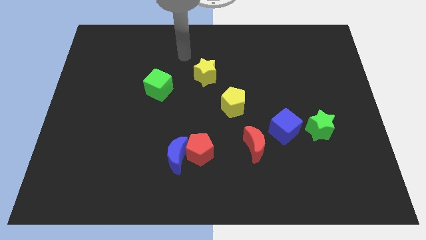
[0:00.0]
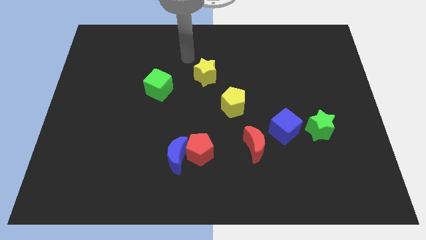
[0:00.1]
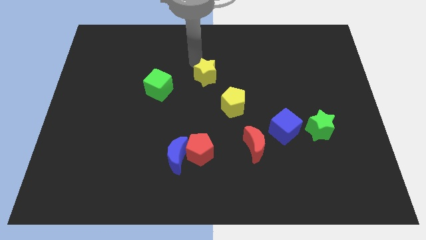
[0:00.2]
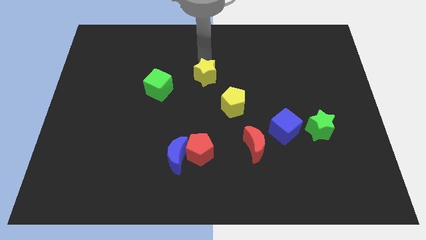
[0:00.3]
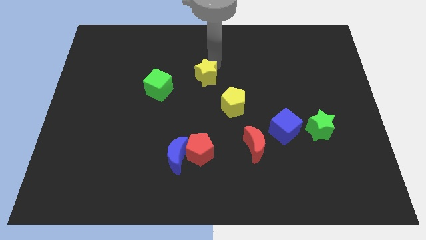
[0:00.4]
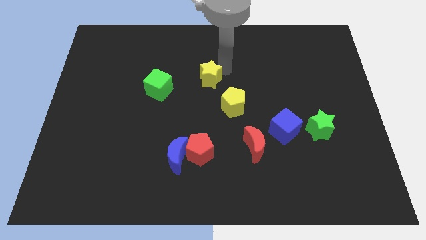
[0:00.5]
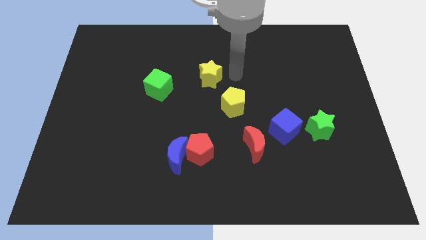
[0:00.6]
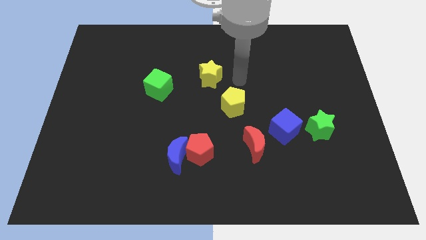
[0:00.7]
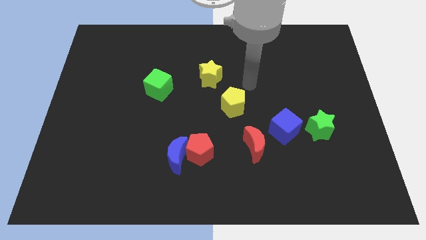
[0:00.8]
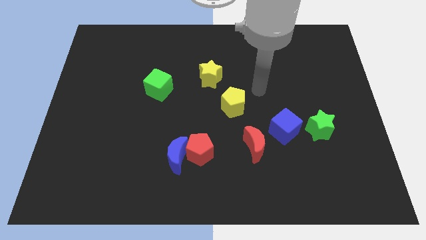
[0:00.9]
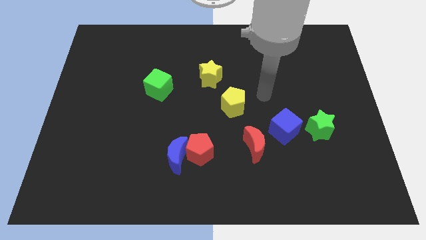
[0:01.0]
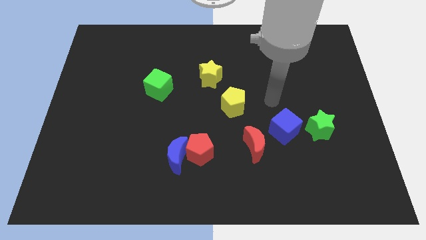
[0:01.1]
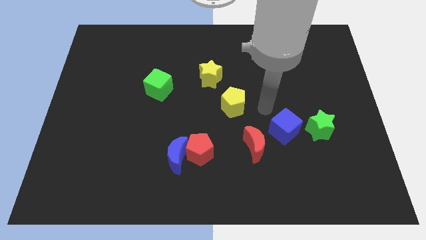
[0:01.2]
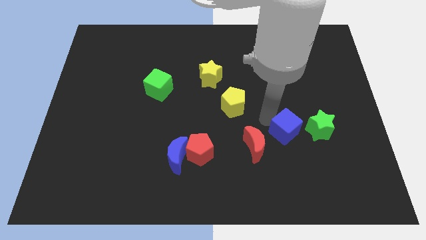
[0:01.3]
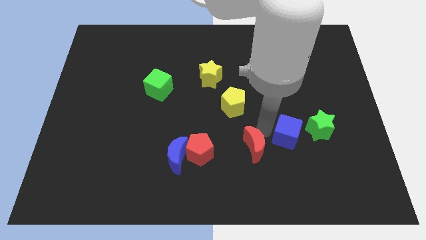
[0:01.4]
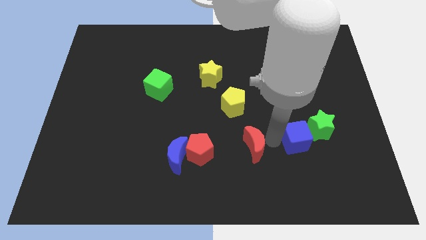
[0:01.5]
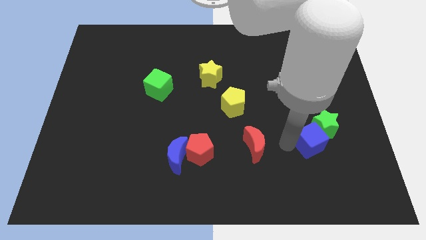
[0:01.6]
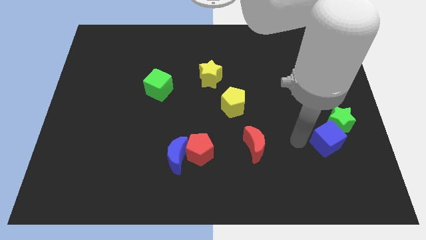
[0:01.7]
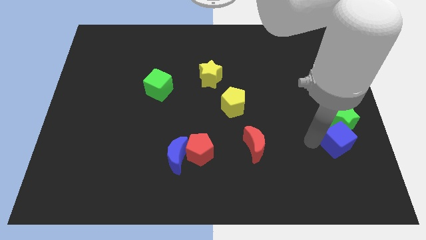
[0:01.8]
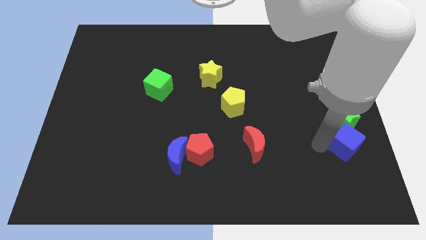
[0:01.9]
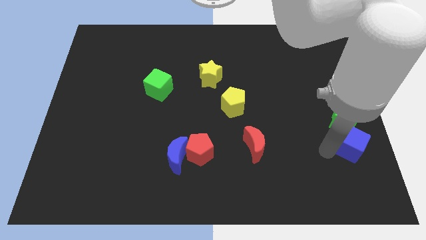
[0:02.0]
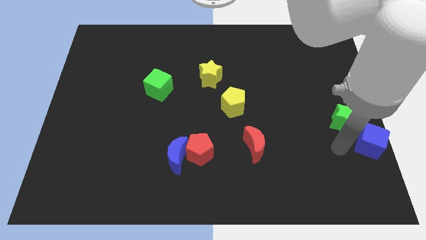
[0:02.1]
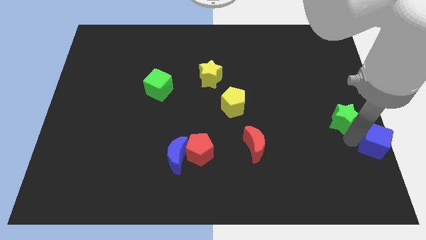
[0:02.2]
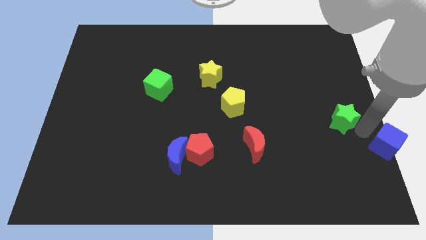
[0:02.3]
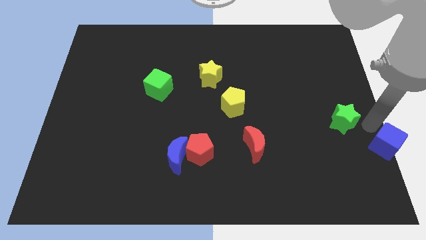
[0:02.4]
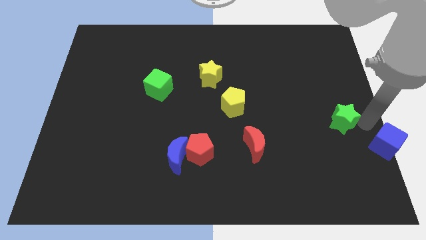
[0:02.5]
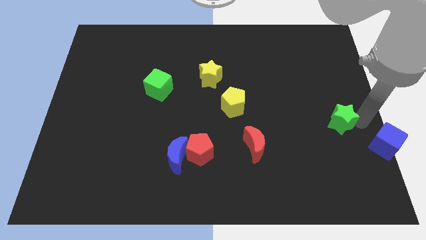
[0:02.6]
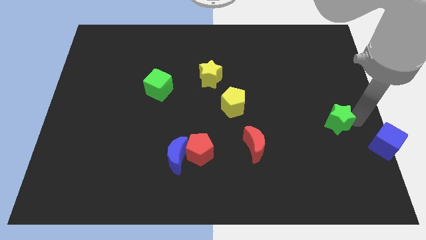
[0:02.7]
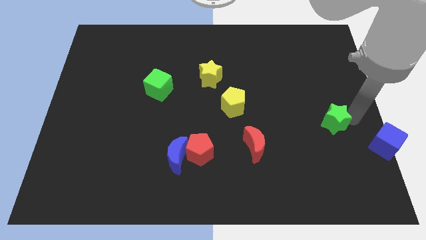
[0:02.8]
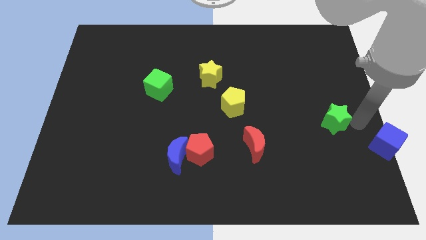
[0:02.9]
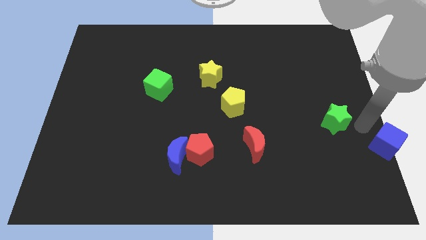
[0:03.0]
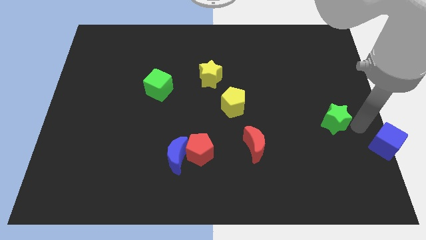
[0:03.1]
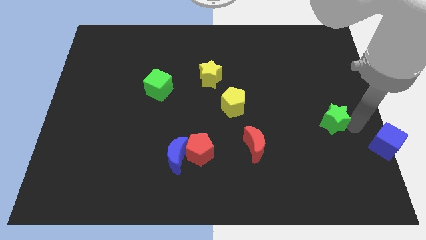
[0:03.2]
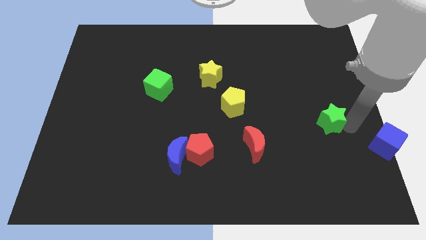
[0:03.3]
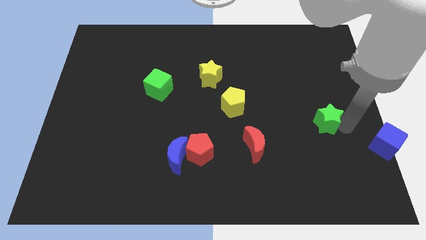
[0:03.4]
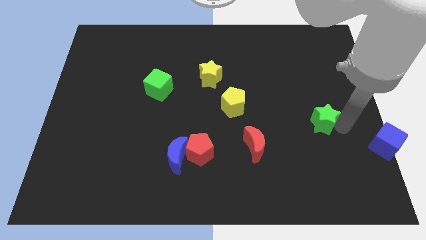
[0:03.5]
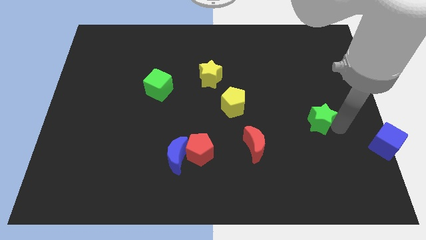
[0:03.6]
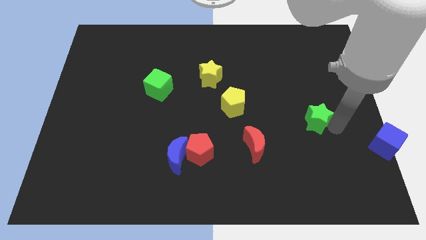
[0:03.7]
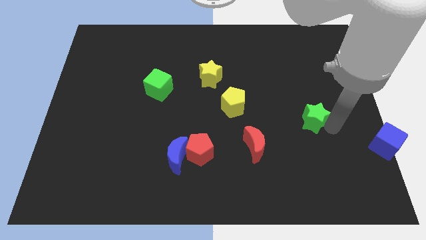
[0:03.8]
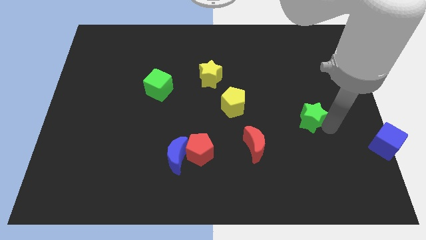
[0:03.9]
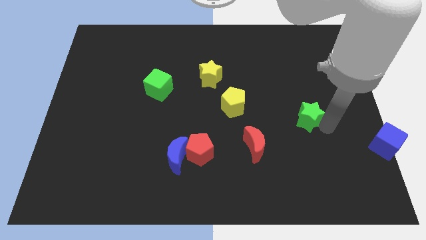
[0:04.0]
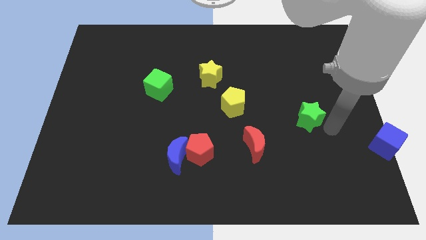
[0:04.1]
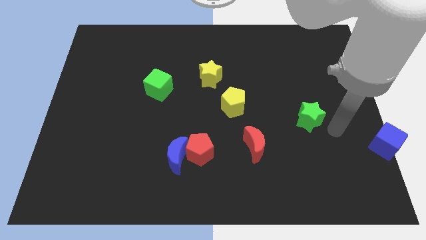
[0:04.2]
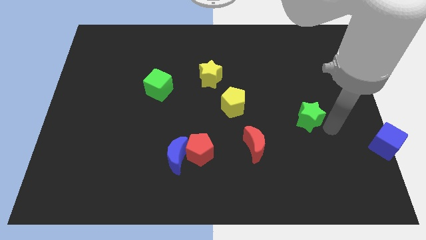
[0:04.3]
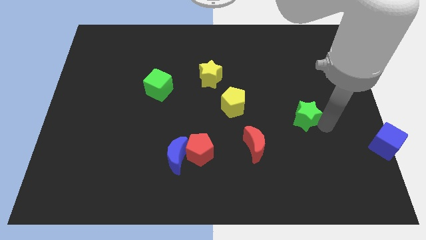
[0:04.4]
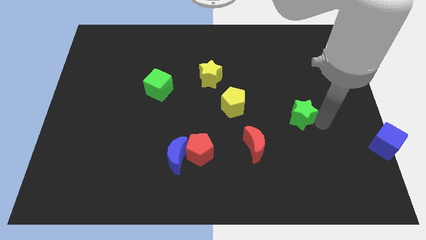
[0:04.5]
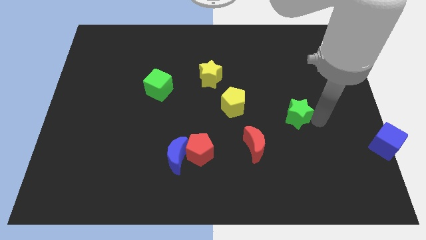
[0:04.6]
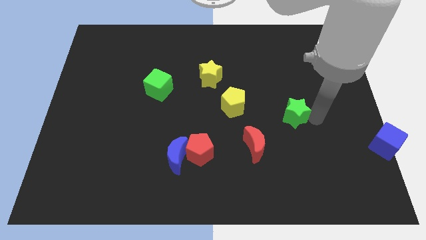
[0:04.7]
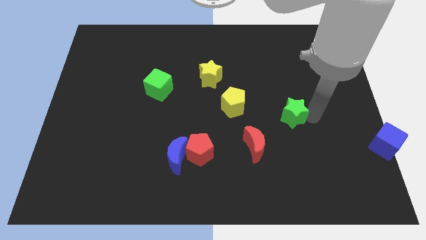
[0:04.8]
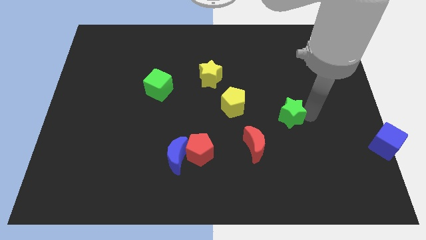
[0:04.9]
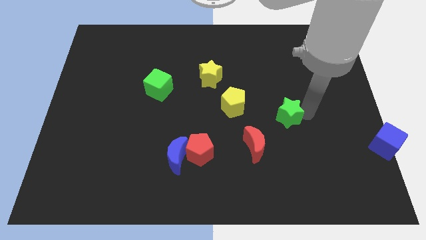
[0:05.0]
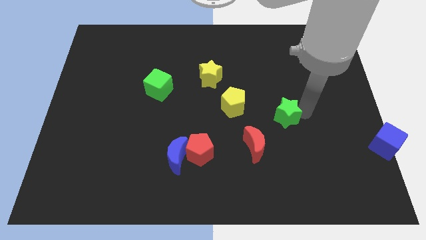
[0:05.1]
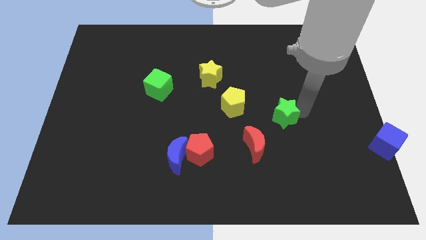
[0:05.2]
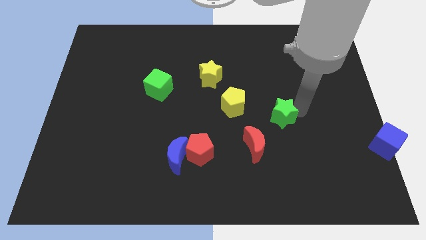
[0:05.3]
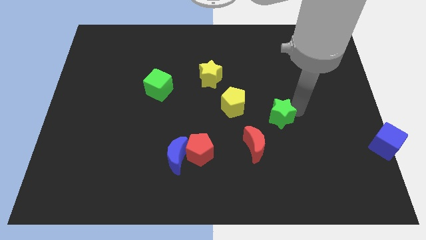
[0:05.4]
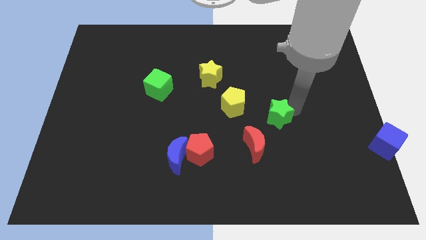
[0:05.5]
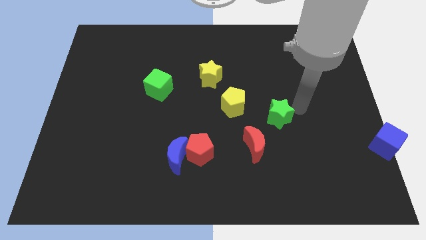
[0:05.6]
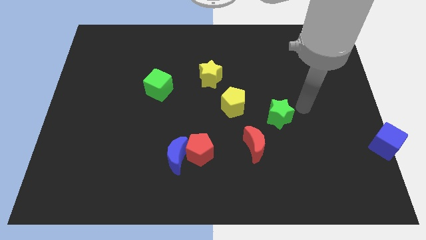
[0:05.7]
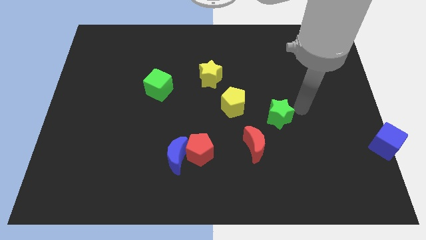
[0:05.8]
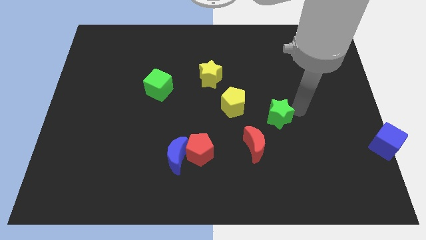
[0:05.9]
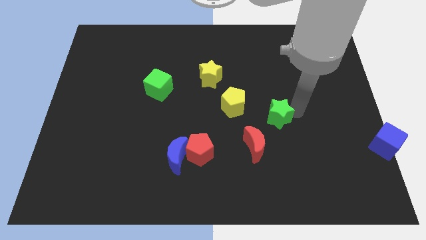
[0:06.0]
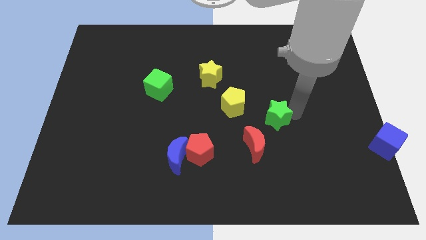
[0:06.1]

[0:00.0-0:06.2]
slide the green star to the bottom right of the yellow pentagon

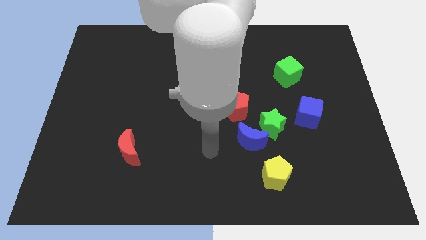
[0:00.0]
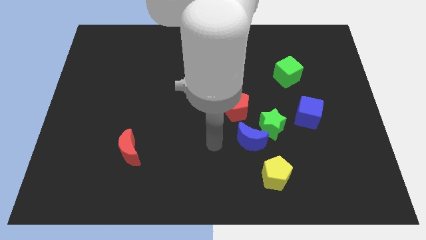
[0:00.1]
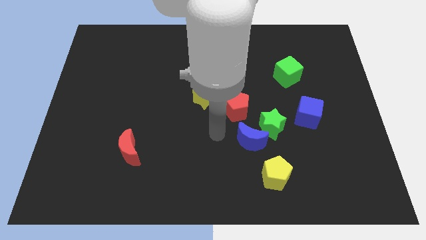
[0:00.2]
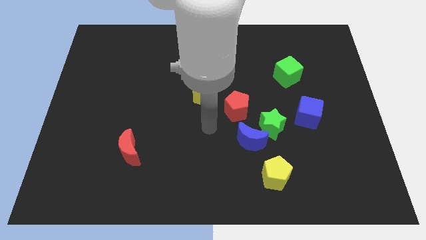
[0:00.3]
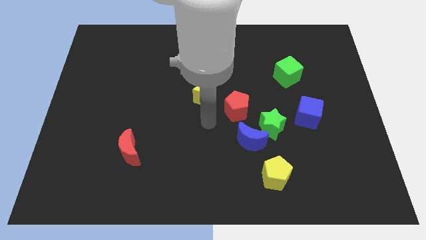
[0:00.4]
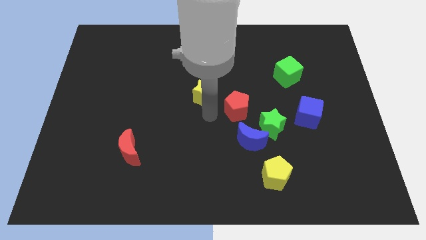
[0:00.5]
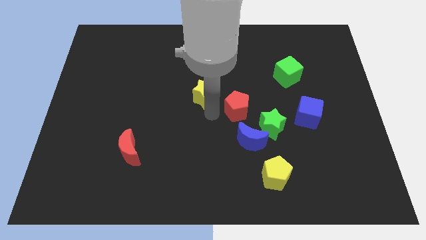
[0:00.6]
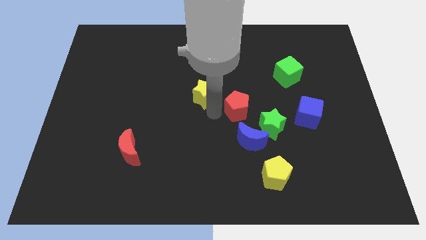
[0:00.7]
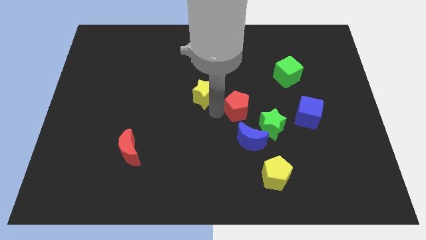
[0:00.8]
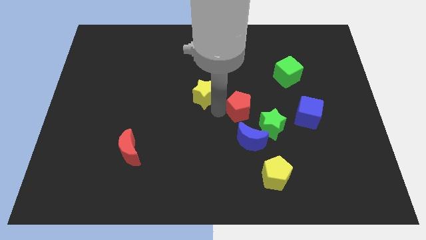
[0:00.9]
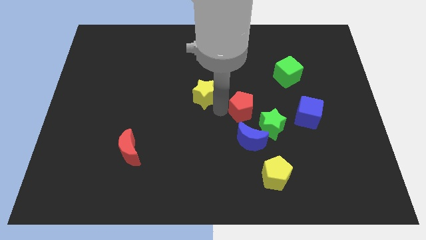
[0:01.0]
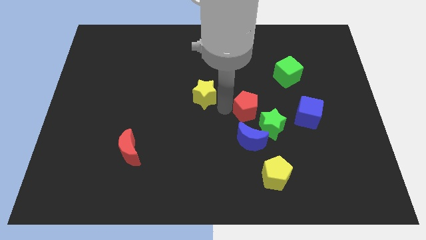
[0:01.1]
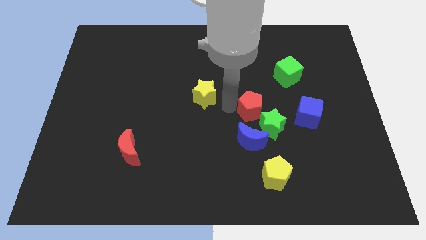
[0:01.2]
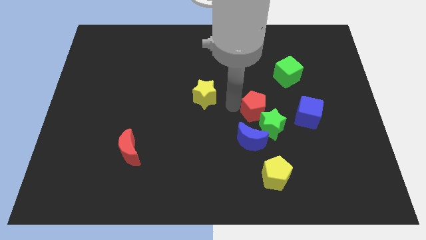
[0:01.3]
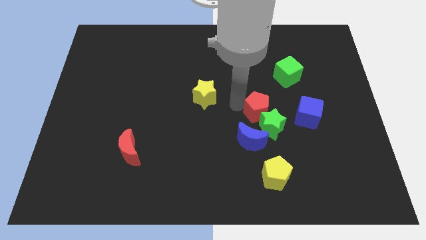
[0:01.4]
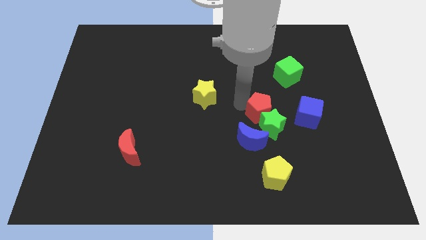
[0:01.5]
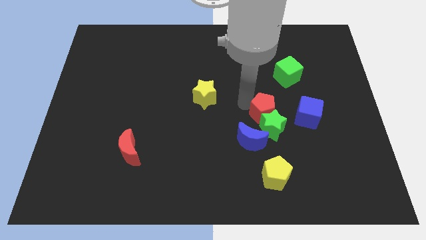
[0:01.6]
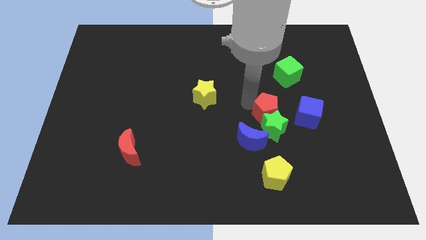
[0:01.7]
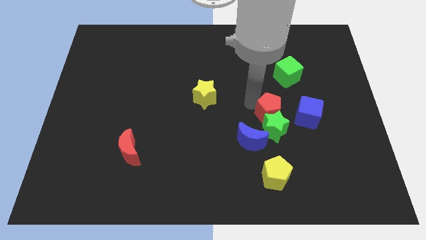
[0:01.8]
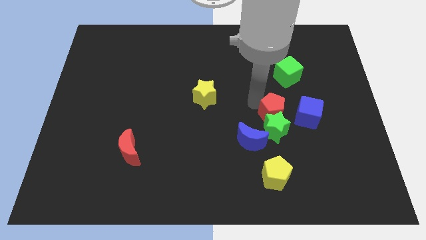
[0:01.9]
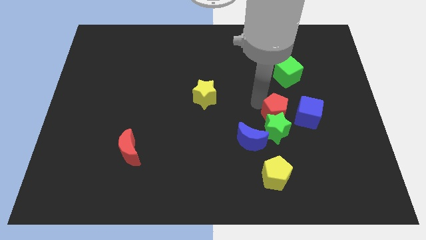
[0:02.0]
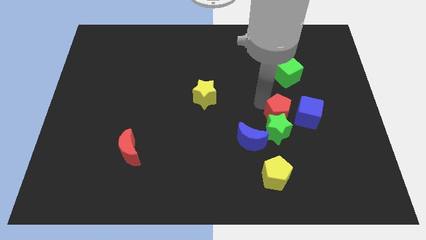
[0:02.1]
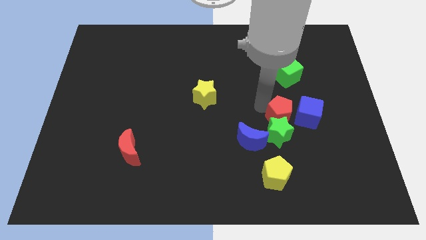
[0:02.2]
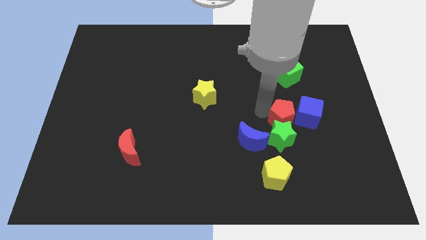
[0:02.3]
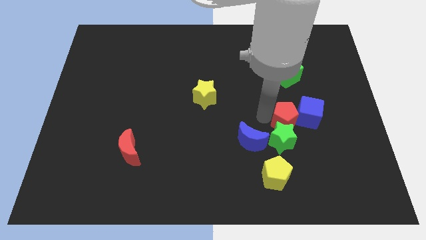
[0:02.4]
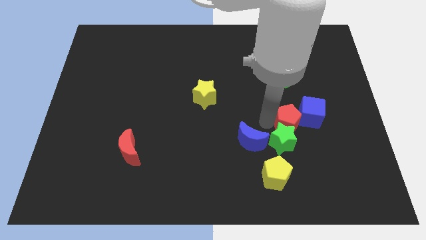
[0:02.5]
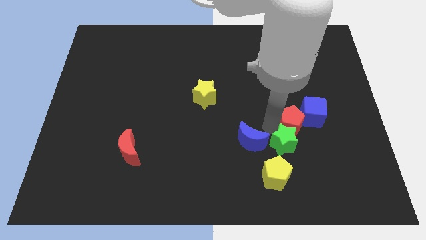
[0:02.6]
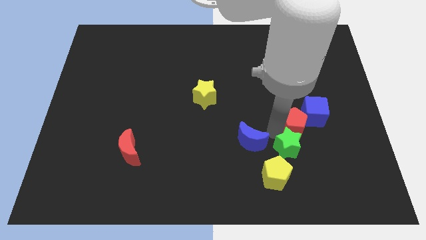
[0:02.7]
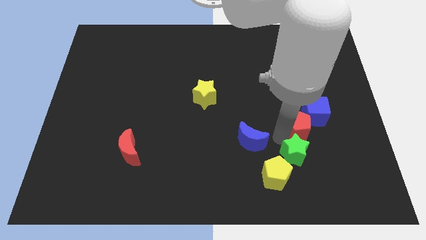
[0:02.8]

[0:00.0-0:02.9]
push the red pentagon to the bottom of the blue cube
